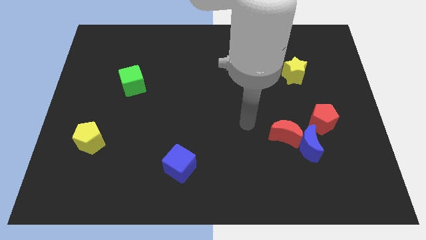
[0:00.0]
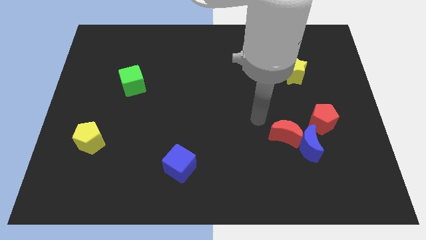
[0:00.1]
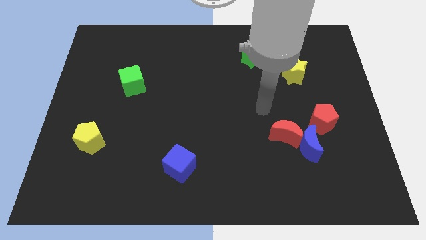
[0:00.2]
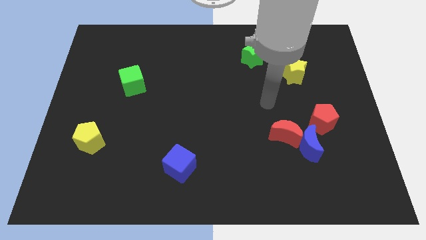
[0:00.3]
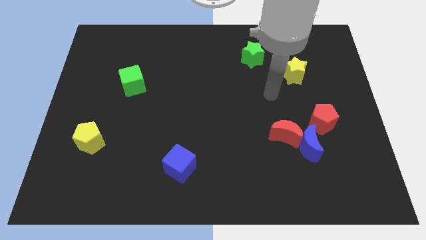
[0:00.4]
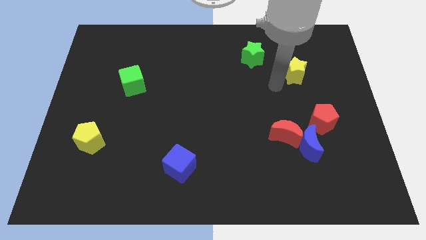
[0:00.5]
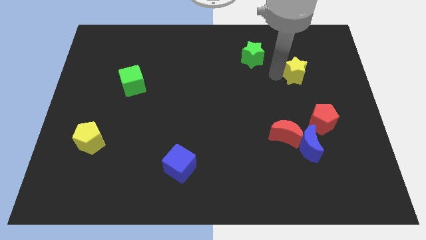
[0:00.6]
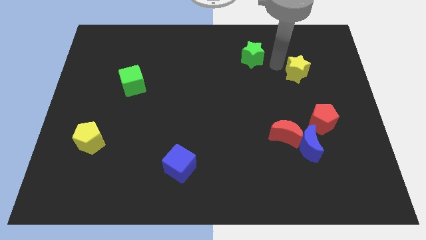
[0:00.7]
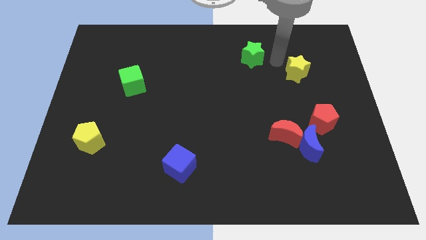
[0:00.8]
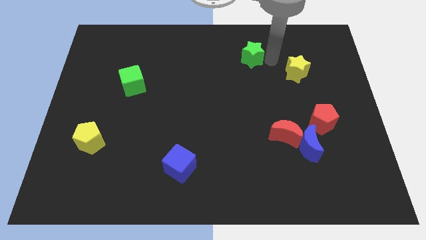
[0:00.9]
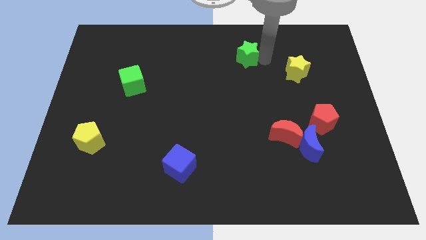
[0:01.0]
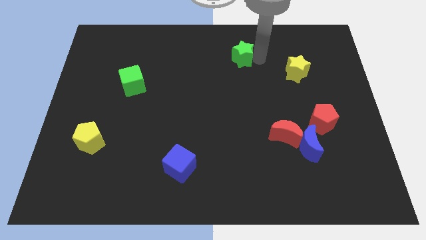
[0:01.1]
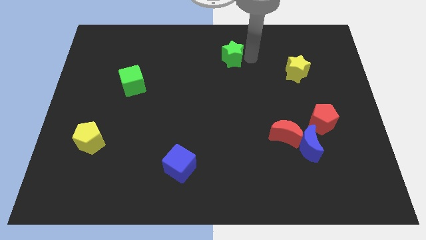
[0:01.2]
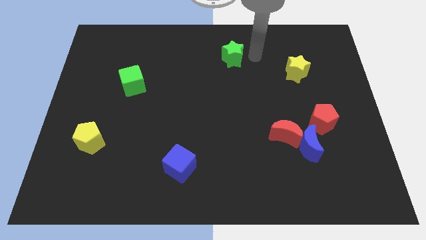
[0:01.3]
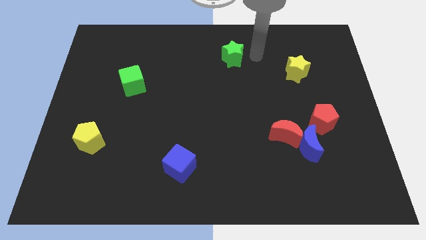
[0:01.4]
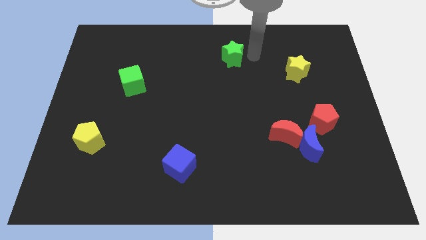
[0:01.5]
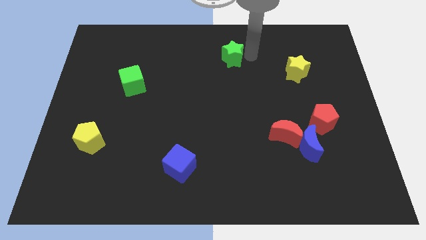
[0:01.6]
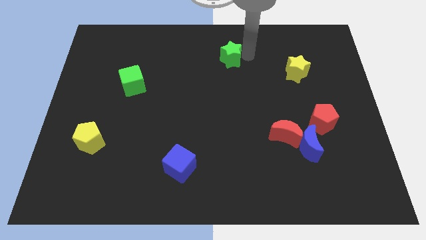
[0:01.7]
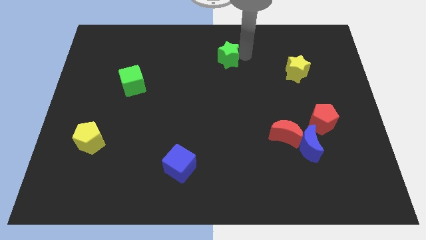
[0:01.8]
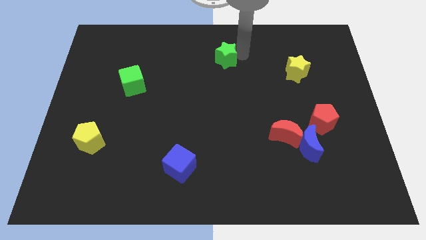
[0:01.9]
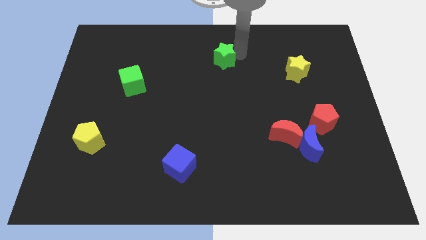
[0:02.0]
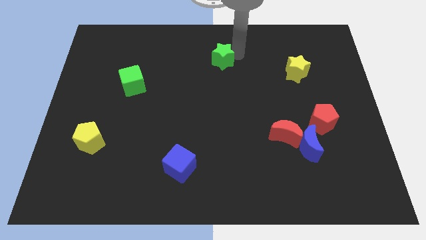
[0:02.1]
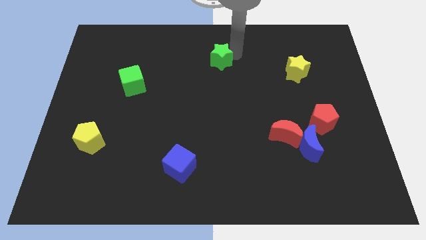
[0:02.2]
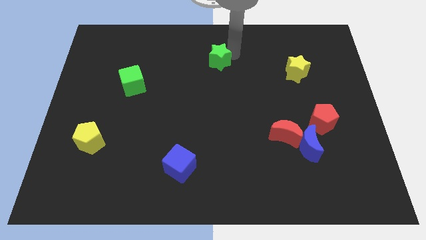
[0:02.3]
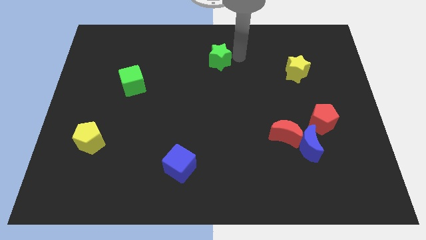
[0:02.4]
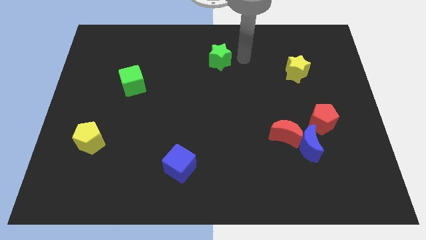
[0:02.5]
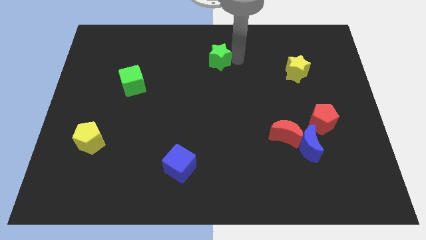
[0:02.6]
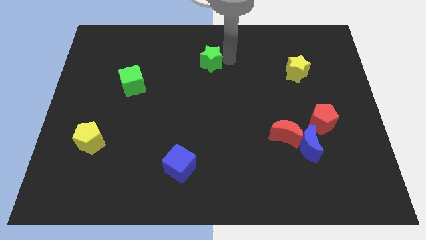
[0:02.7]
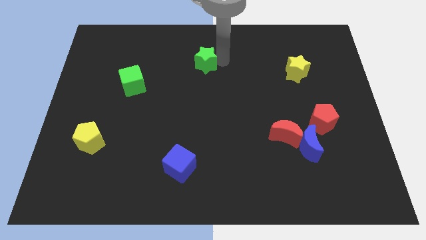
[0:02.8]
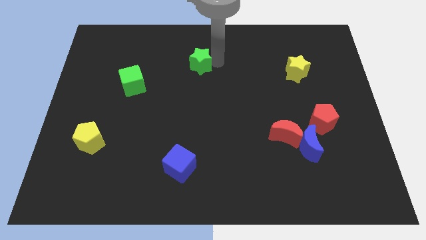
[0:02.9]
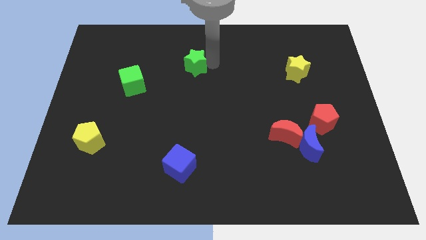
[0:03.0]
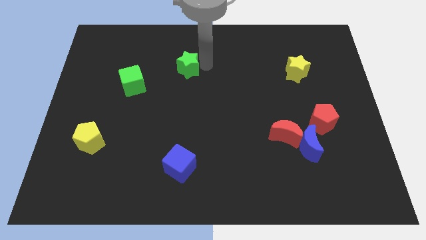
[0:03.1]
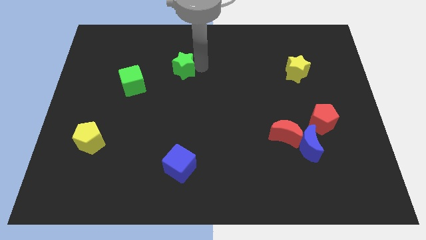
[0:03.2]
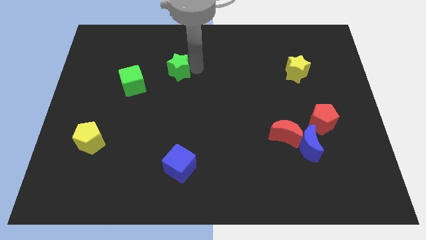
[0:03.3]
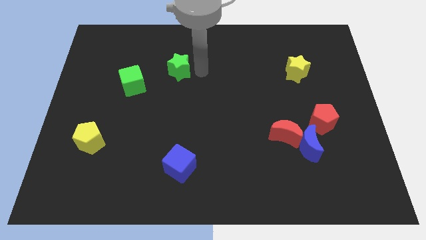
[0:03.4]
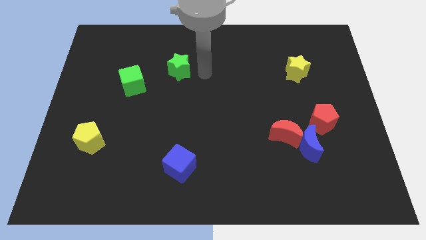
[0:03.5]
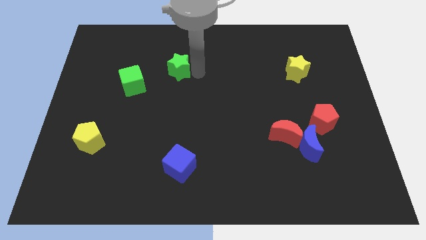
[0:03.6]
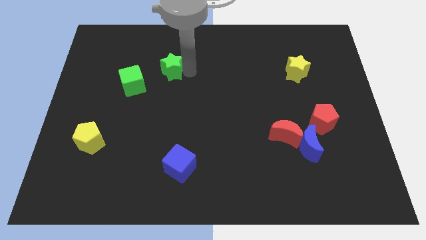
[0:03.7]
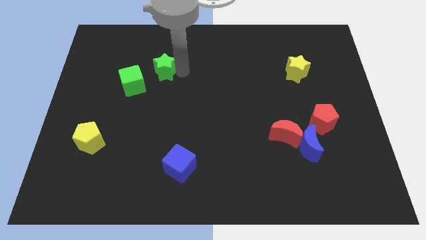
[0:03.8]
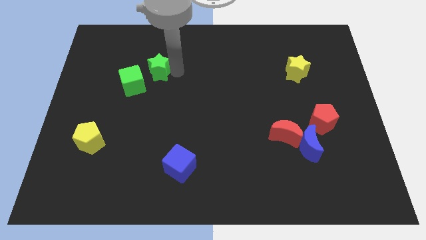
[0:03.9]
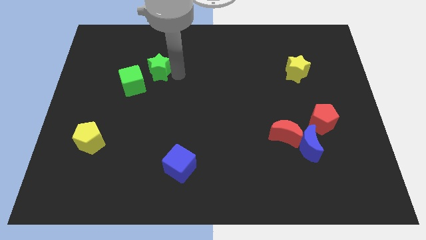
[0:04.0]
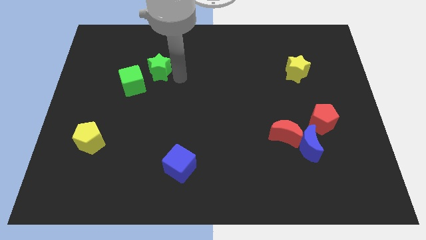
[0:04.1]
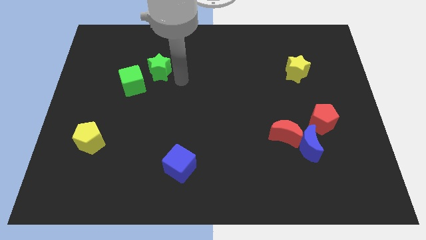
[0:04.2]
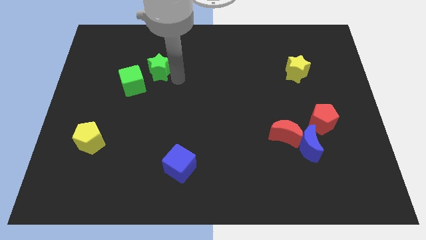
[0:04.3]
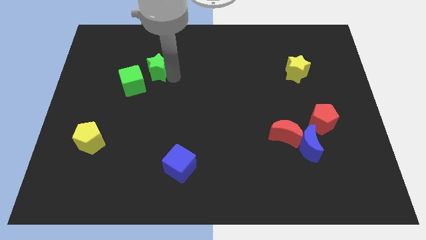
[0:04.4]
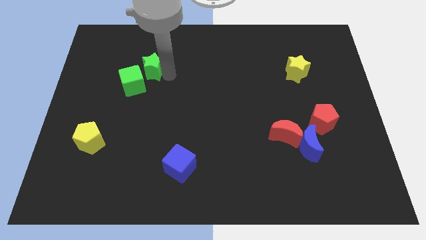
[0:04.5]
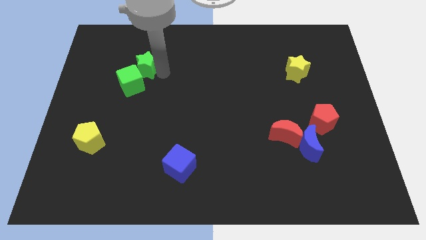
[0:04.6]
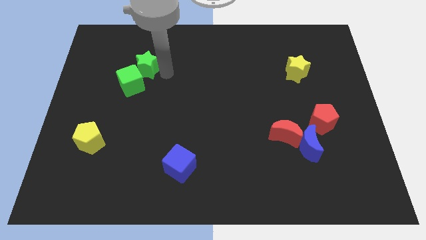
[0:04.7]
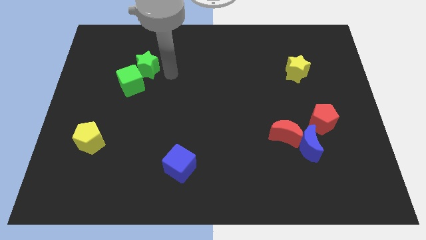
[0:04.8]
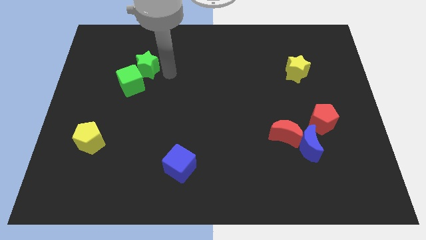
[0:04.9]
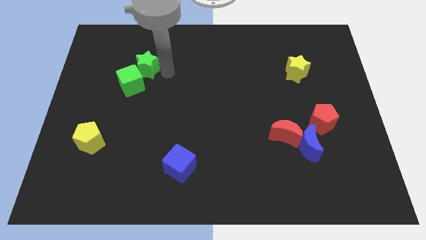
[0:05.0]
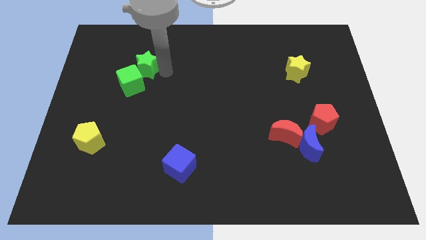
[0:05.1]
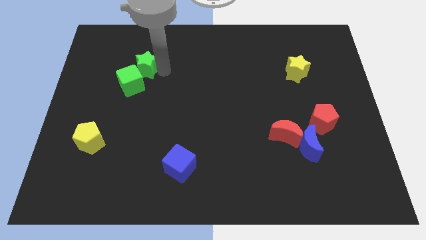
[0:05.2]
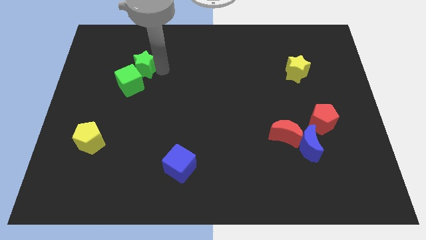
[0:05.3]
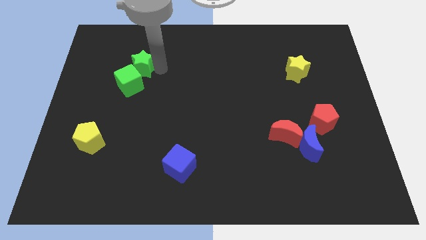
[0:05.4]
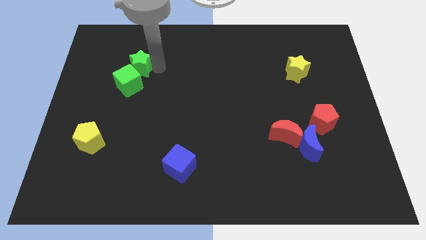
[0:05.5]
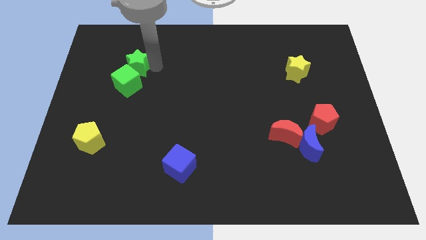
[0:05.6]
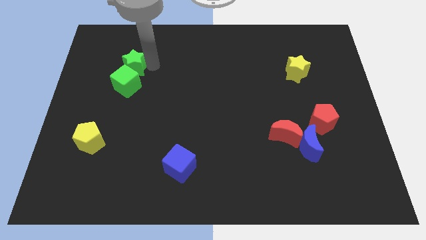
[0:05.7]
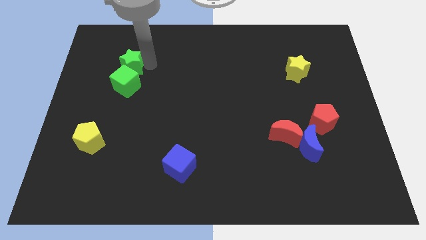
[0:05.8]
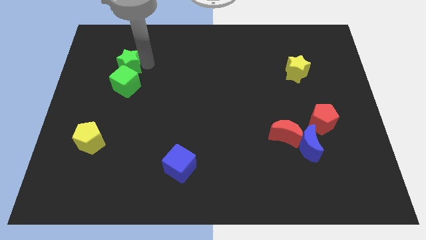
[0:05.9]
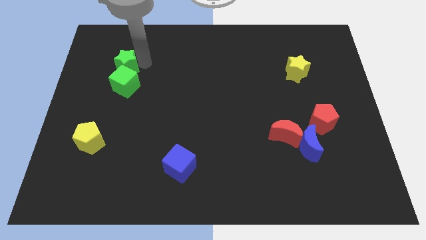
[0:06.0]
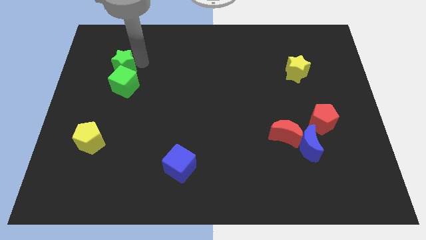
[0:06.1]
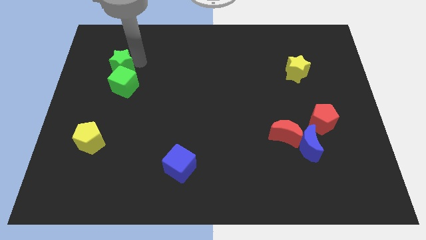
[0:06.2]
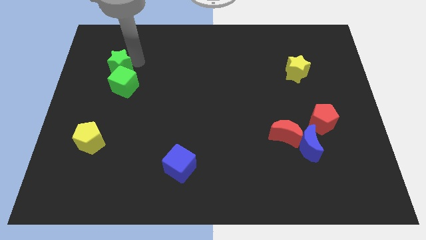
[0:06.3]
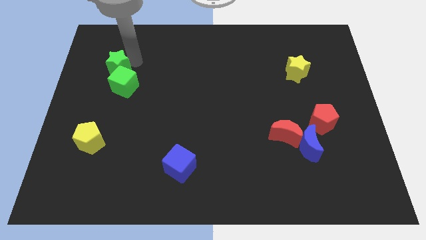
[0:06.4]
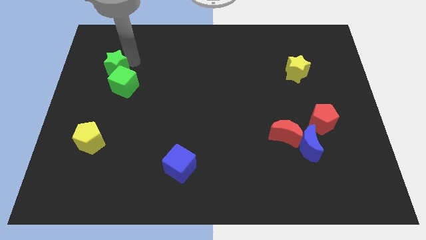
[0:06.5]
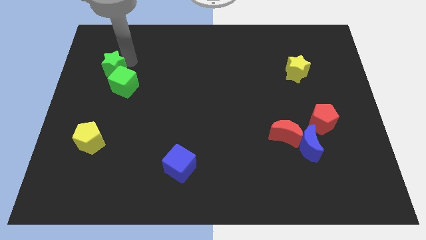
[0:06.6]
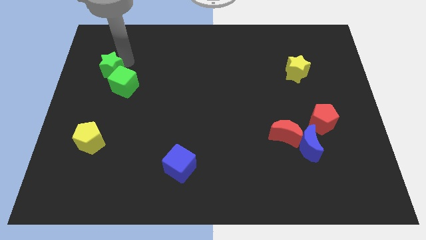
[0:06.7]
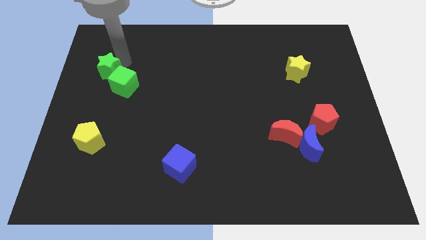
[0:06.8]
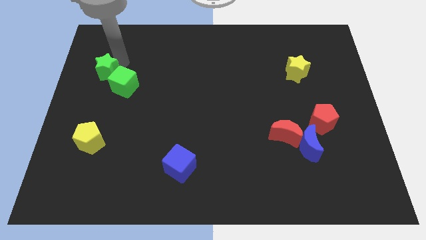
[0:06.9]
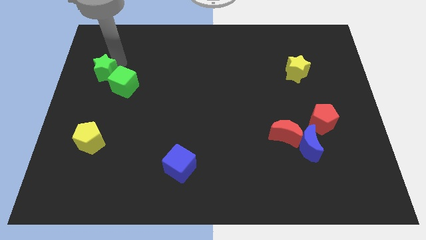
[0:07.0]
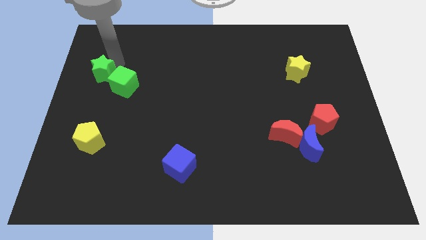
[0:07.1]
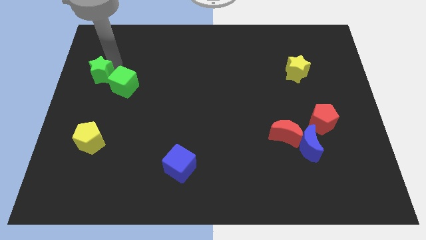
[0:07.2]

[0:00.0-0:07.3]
put the green star to the left side

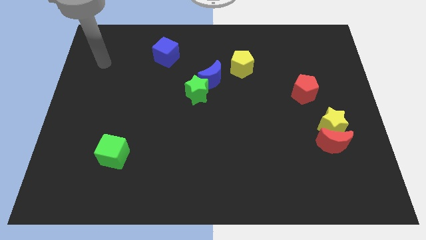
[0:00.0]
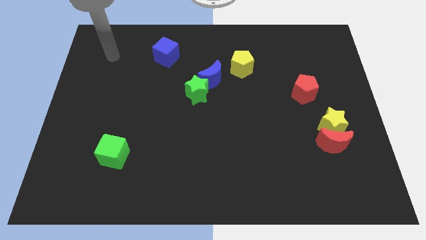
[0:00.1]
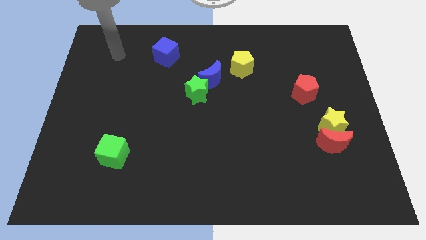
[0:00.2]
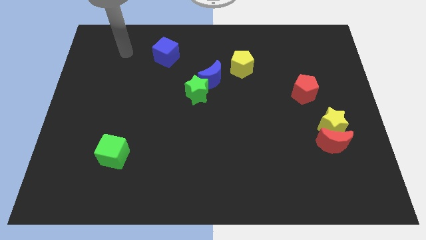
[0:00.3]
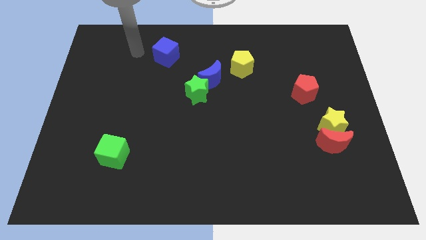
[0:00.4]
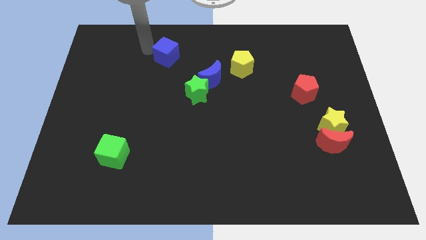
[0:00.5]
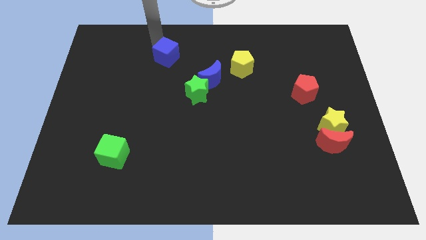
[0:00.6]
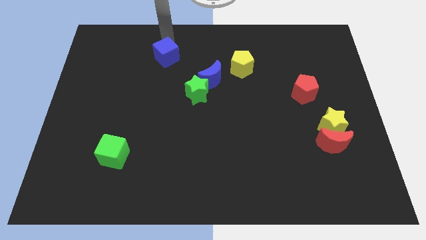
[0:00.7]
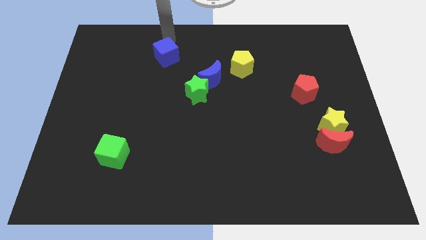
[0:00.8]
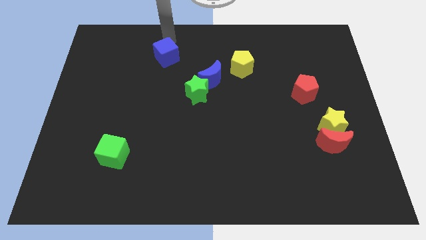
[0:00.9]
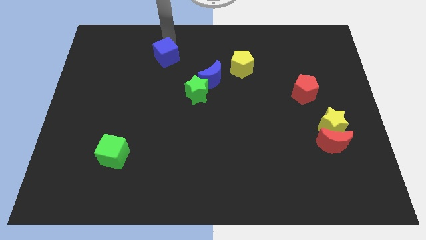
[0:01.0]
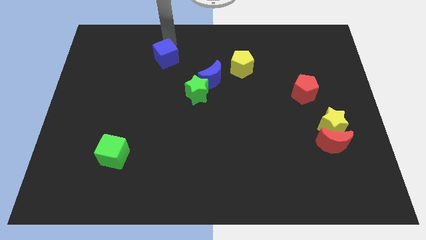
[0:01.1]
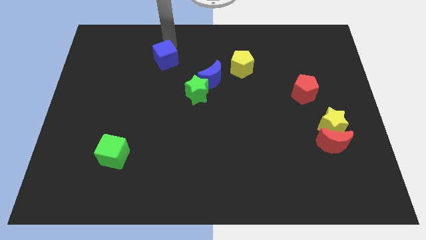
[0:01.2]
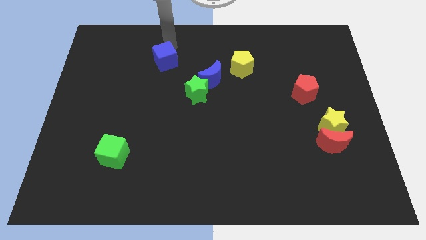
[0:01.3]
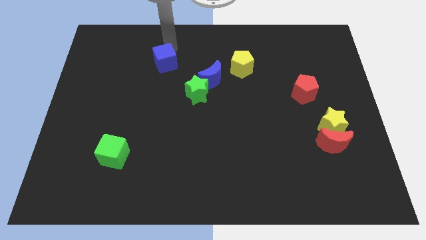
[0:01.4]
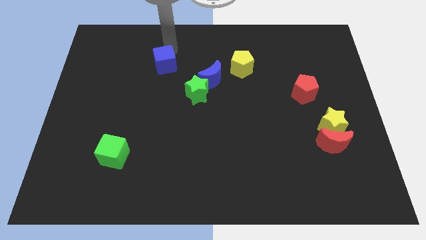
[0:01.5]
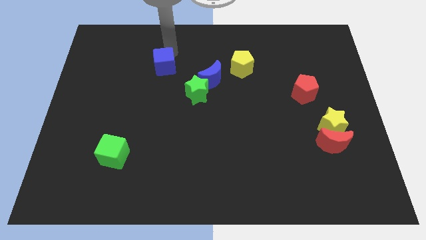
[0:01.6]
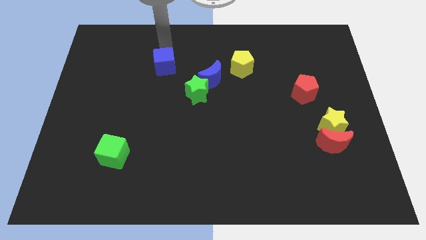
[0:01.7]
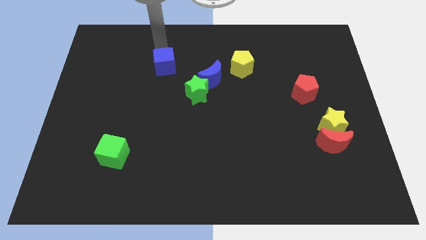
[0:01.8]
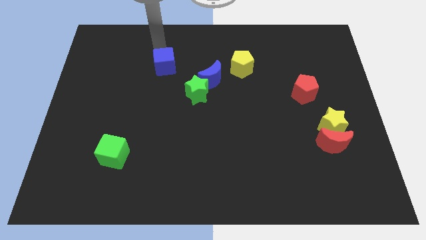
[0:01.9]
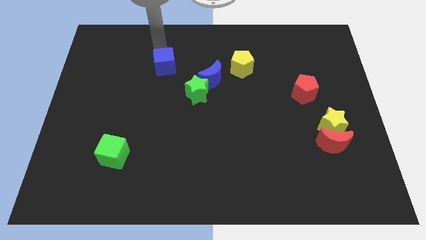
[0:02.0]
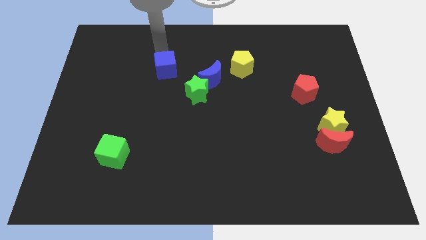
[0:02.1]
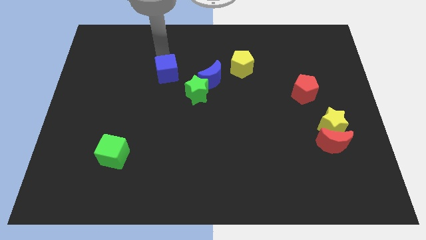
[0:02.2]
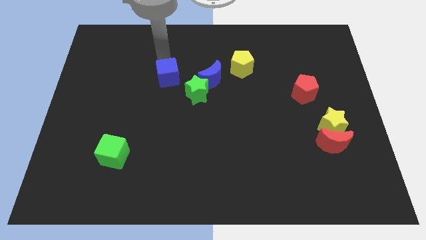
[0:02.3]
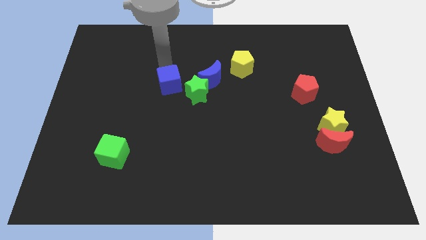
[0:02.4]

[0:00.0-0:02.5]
slide the blue cube to the middle of the board
